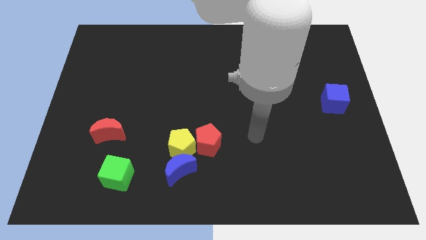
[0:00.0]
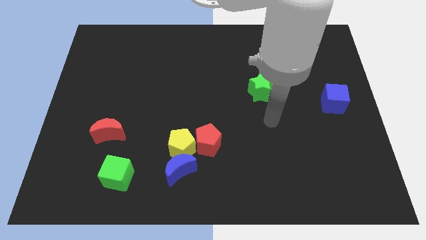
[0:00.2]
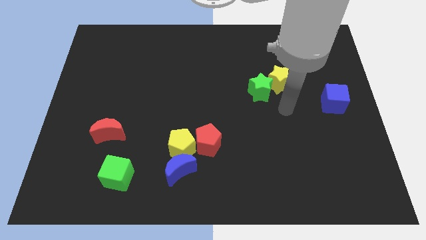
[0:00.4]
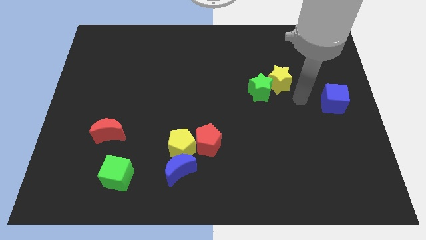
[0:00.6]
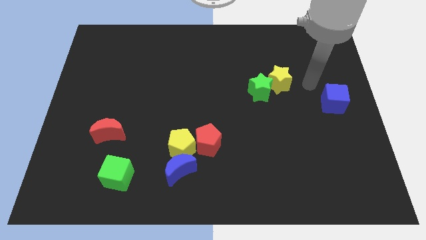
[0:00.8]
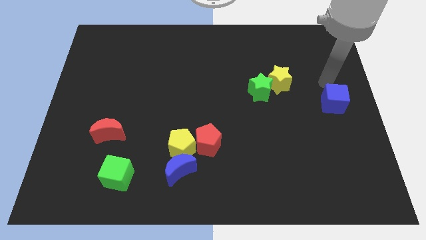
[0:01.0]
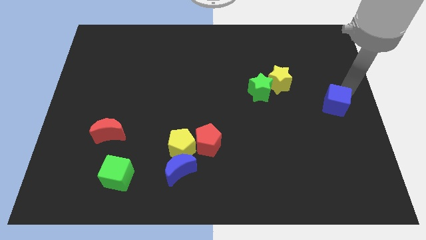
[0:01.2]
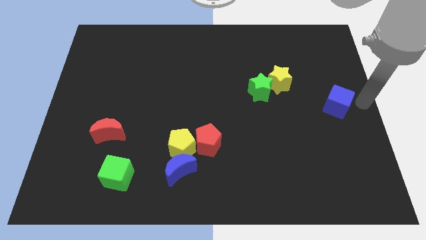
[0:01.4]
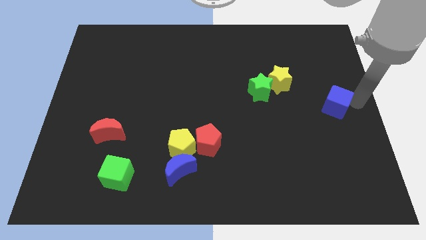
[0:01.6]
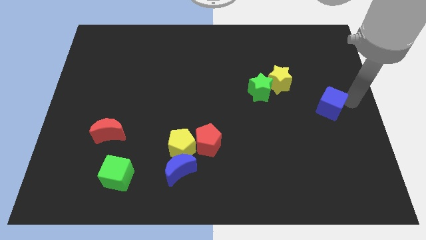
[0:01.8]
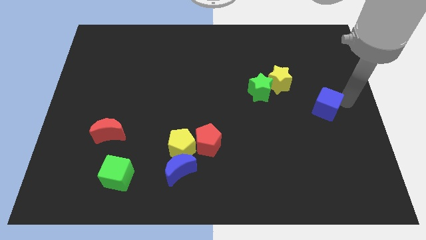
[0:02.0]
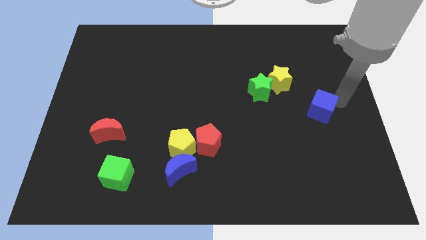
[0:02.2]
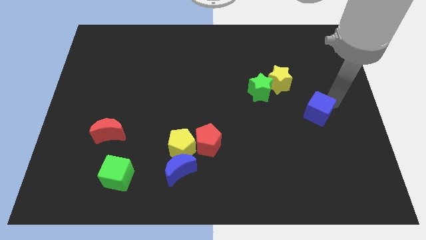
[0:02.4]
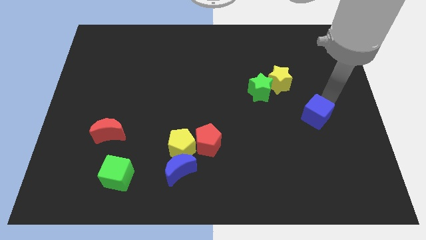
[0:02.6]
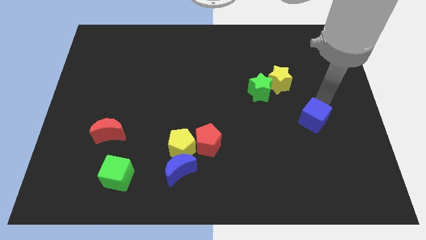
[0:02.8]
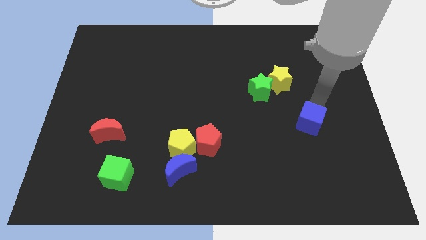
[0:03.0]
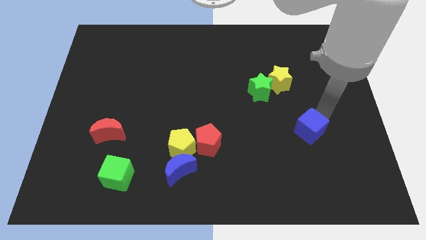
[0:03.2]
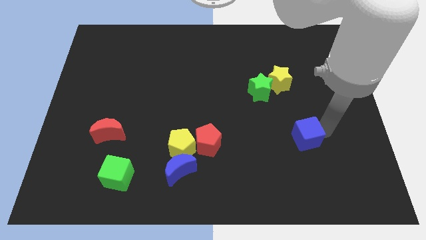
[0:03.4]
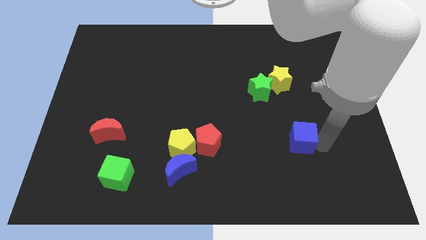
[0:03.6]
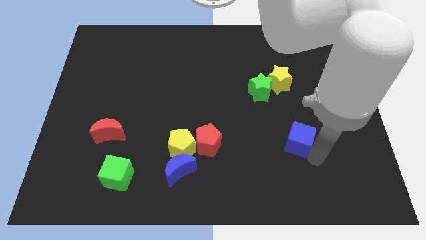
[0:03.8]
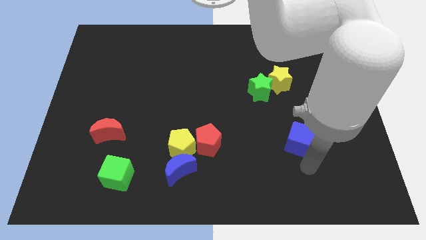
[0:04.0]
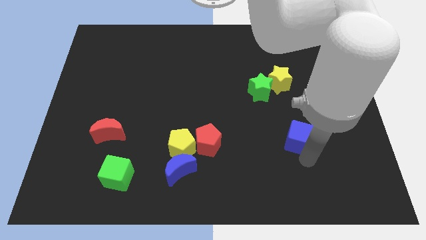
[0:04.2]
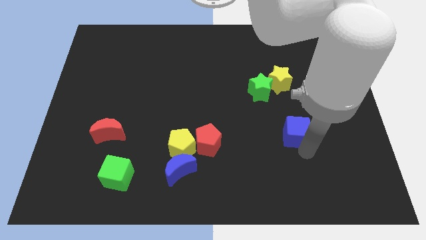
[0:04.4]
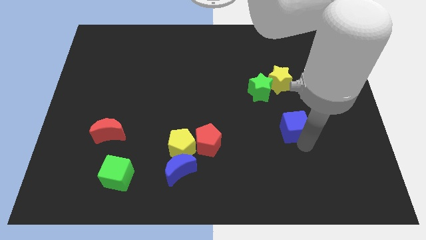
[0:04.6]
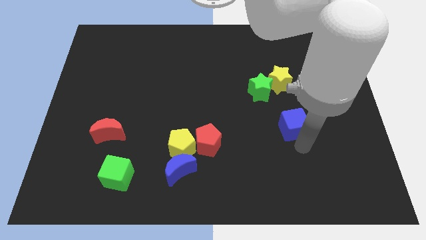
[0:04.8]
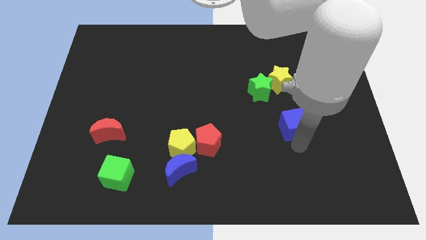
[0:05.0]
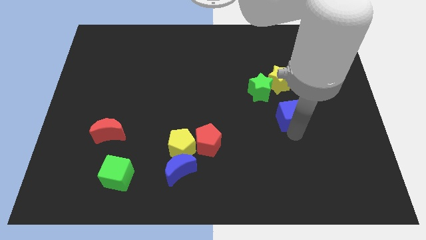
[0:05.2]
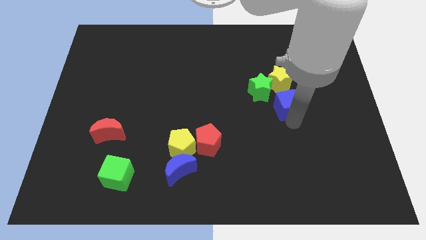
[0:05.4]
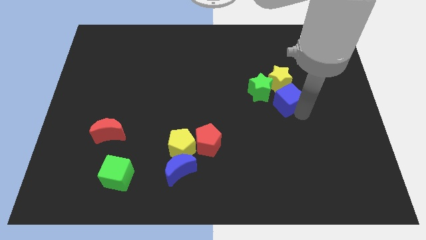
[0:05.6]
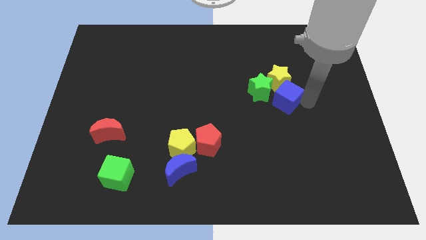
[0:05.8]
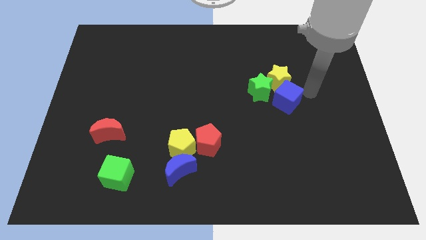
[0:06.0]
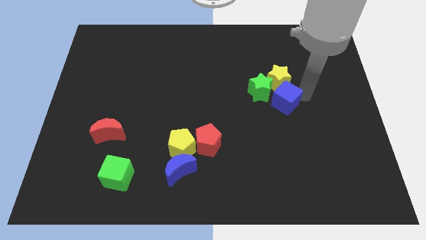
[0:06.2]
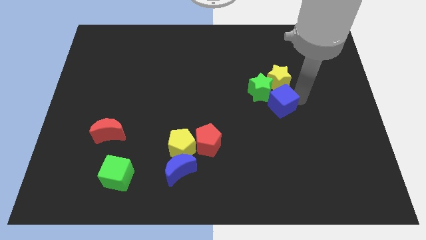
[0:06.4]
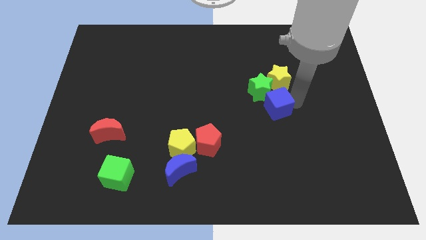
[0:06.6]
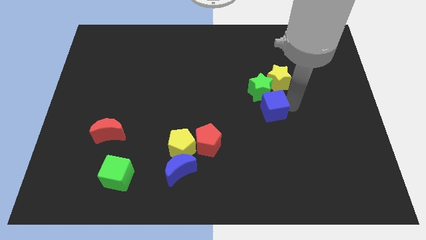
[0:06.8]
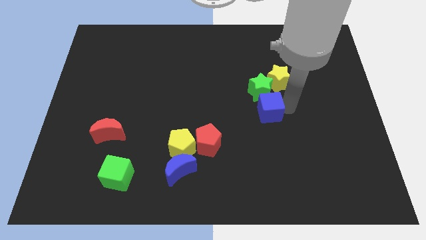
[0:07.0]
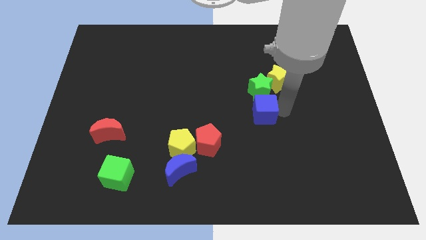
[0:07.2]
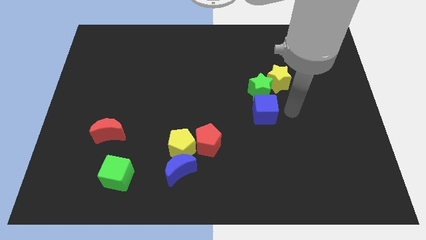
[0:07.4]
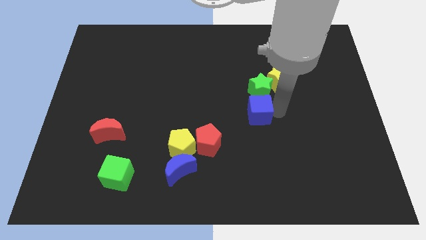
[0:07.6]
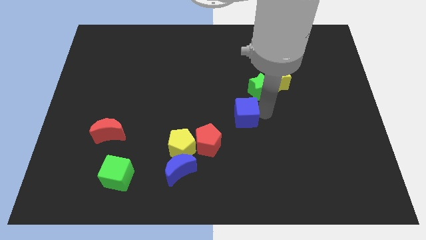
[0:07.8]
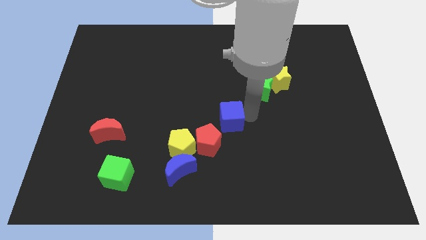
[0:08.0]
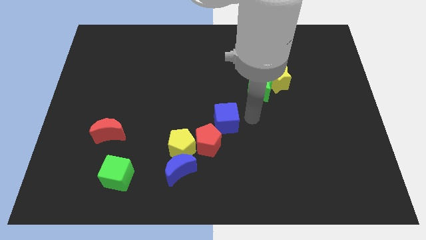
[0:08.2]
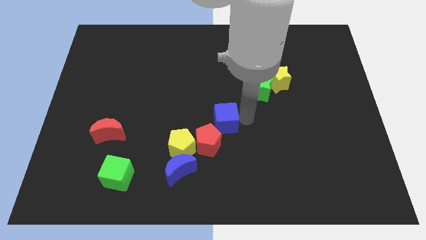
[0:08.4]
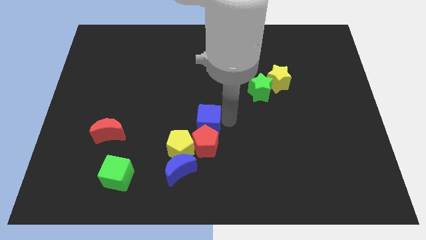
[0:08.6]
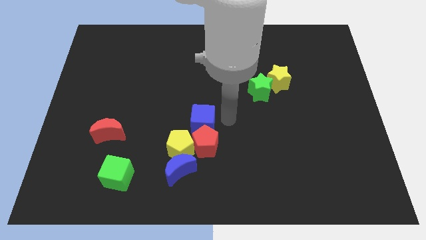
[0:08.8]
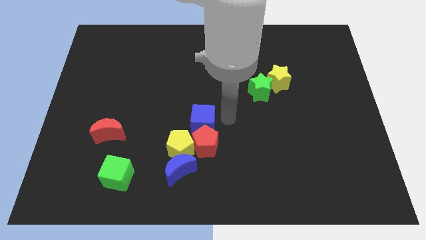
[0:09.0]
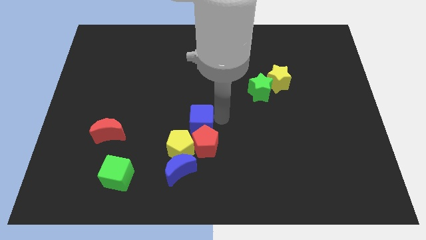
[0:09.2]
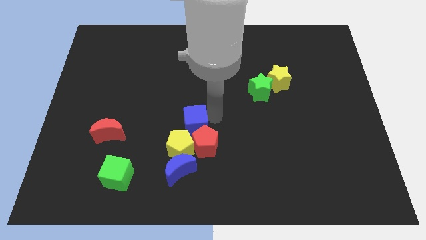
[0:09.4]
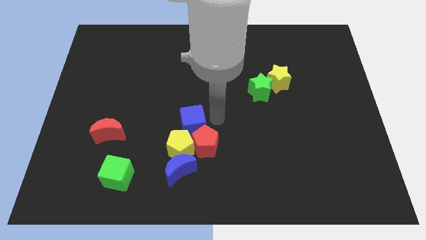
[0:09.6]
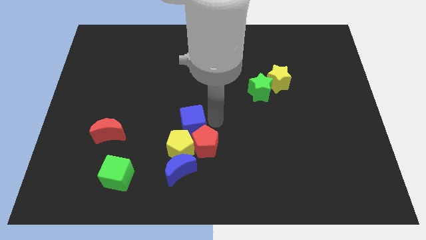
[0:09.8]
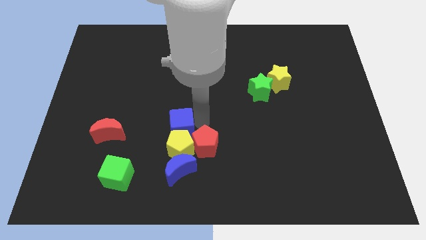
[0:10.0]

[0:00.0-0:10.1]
push the blue cube just right of the red moon

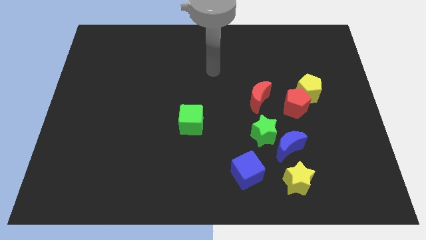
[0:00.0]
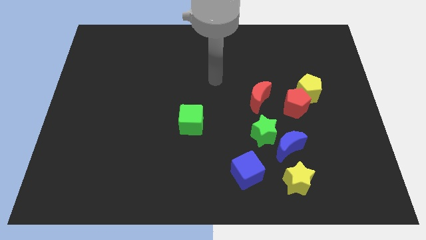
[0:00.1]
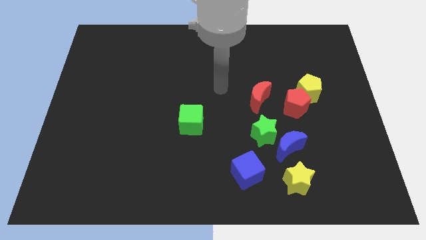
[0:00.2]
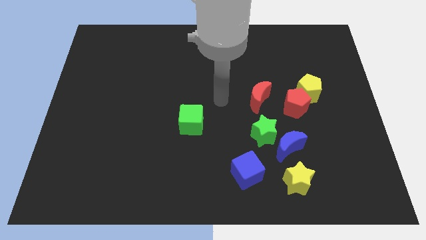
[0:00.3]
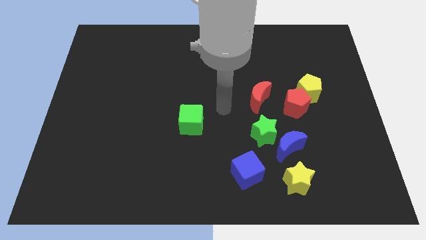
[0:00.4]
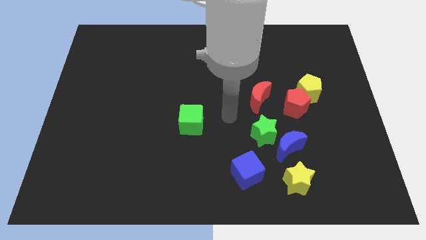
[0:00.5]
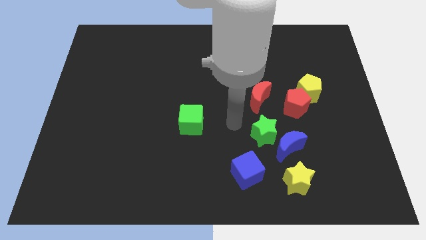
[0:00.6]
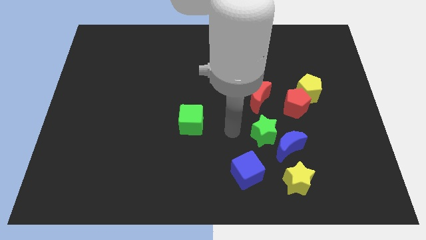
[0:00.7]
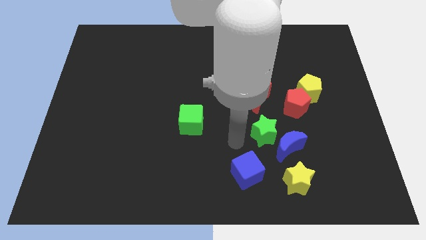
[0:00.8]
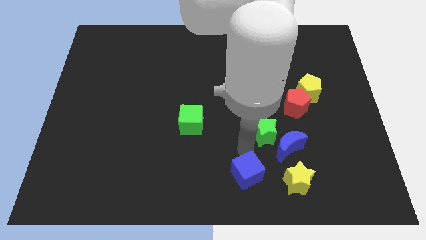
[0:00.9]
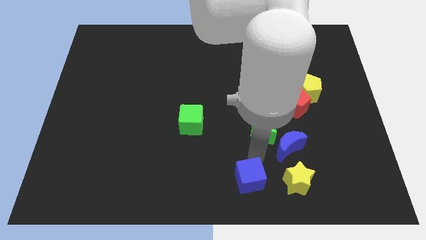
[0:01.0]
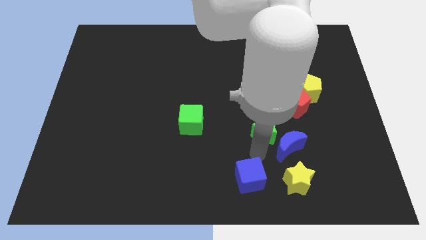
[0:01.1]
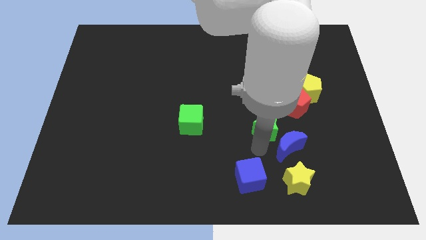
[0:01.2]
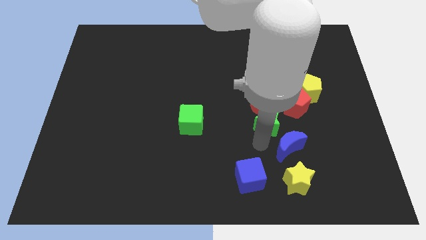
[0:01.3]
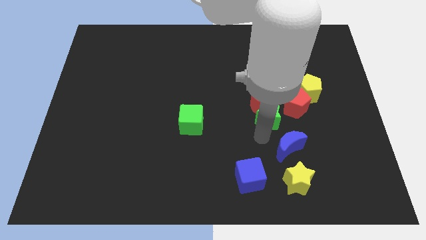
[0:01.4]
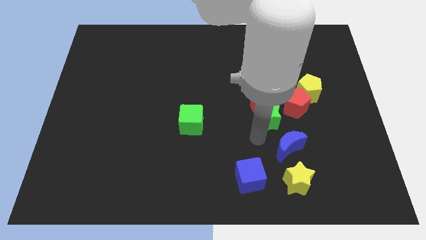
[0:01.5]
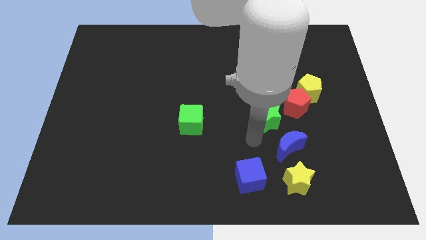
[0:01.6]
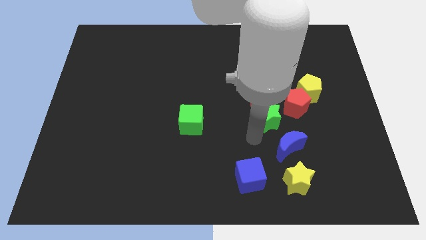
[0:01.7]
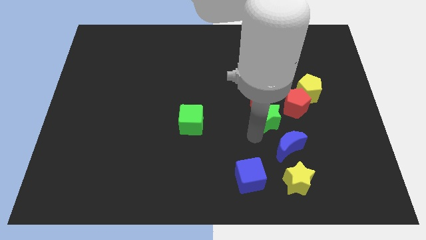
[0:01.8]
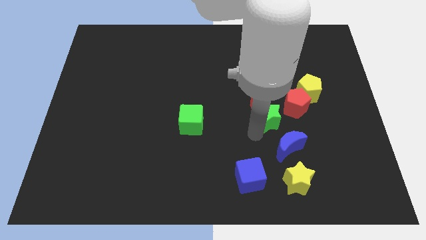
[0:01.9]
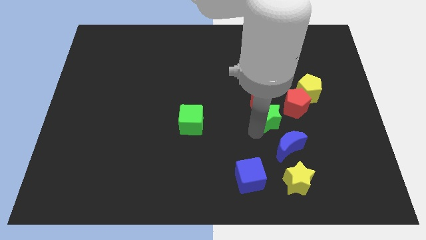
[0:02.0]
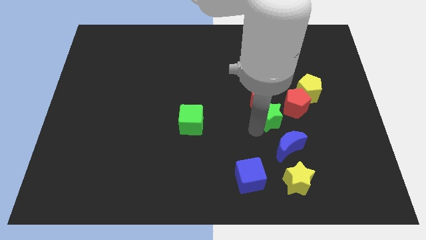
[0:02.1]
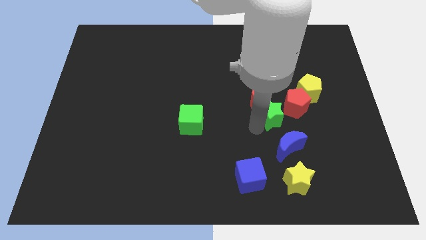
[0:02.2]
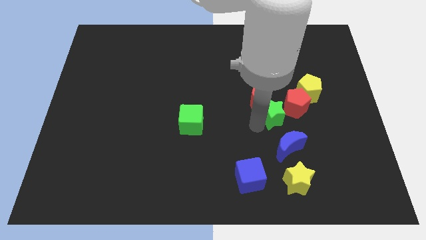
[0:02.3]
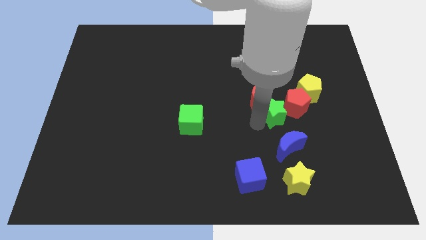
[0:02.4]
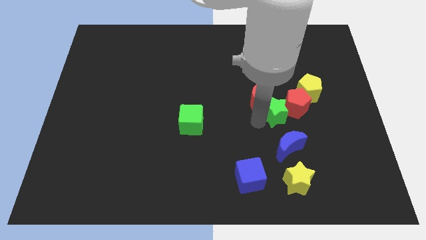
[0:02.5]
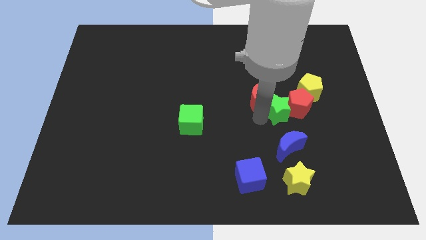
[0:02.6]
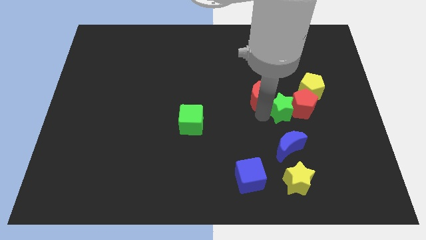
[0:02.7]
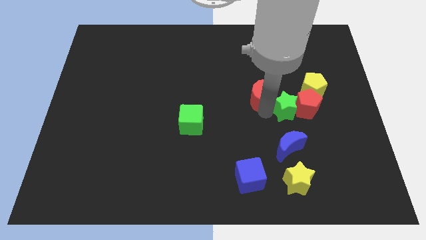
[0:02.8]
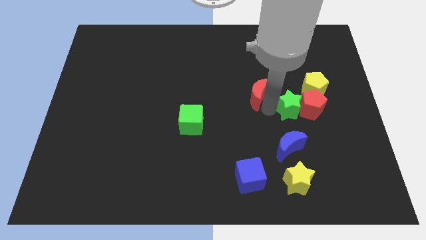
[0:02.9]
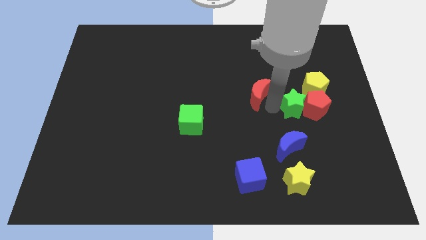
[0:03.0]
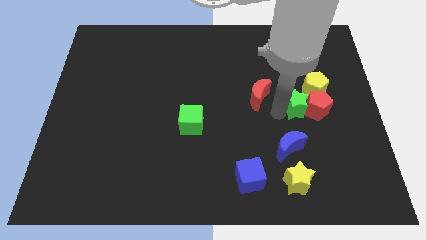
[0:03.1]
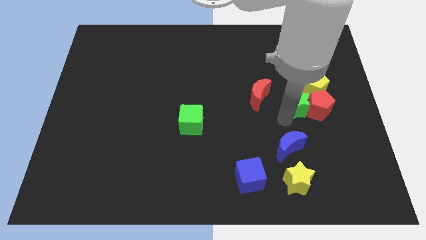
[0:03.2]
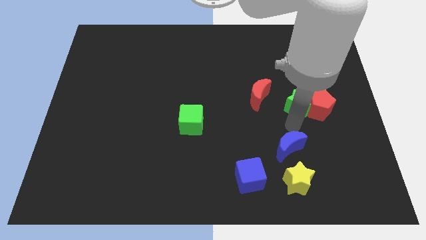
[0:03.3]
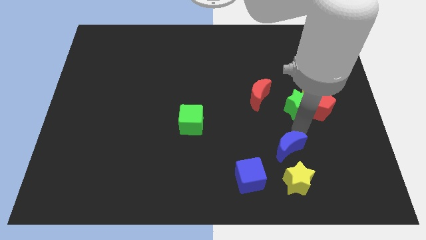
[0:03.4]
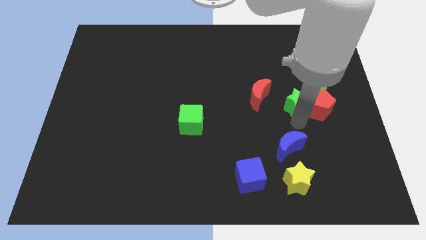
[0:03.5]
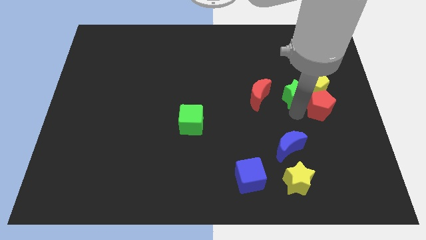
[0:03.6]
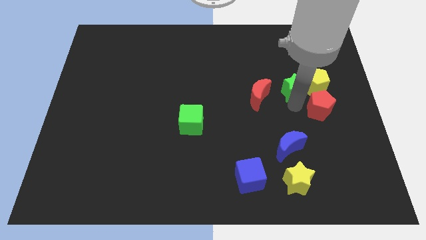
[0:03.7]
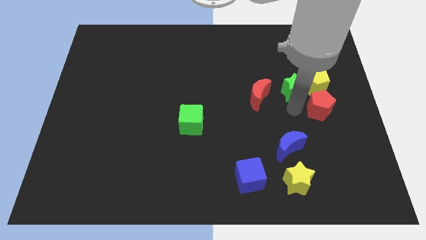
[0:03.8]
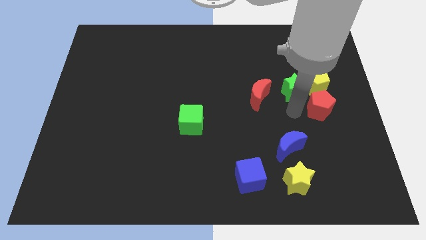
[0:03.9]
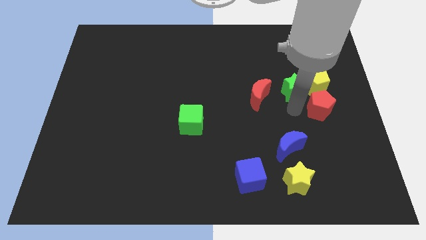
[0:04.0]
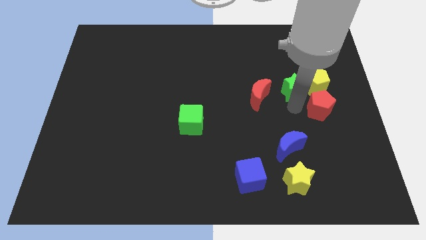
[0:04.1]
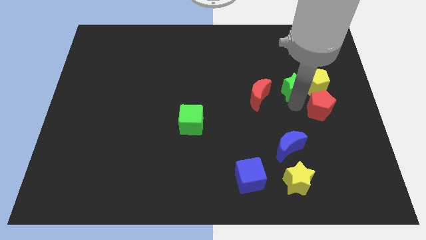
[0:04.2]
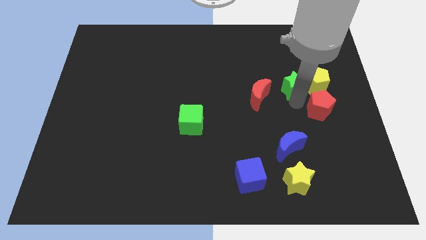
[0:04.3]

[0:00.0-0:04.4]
move the green star diagonally up and to the left of the yellow pentagon
